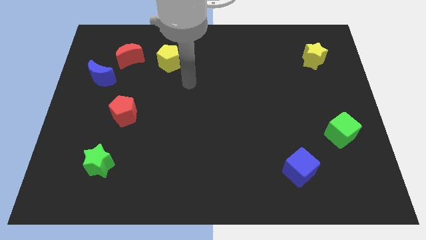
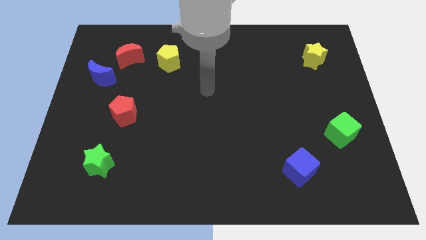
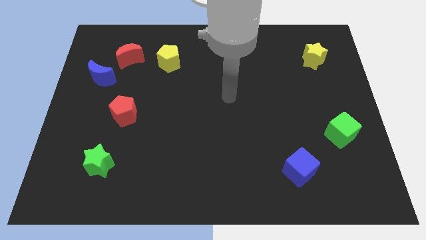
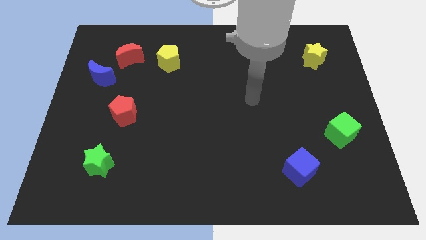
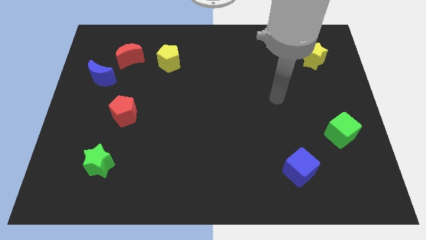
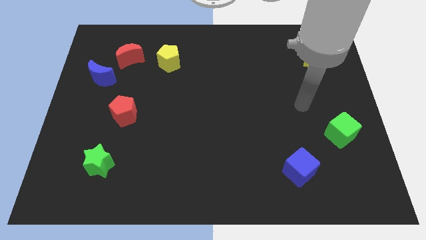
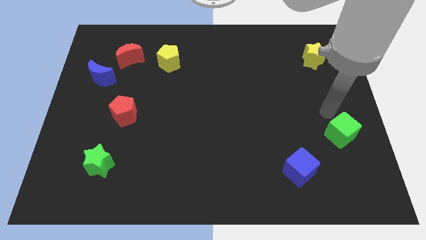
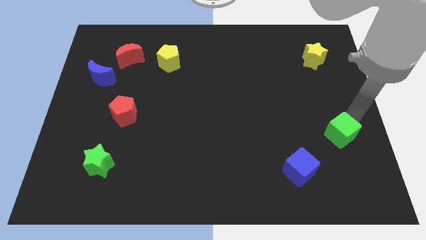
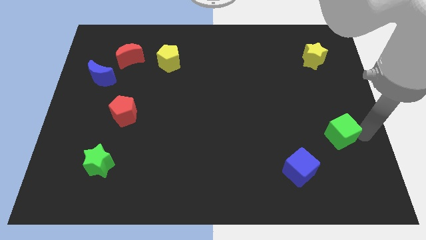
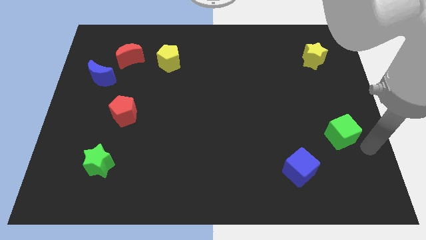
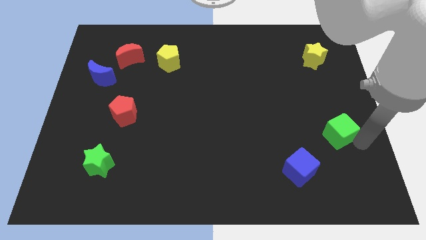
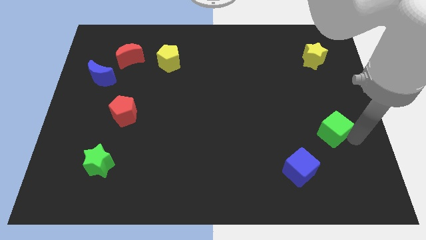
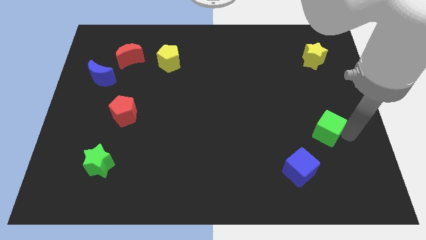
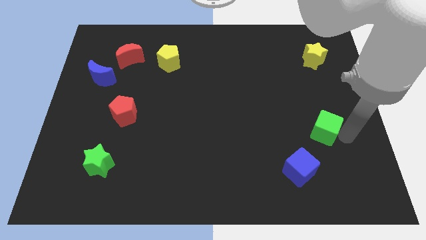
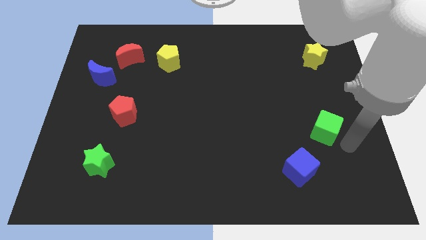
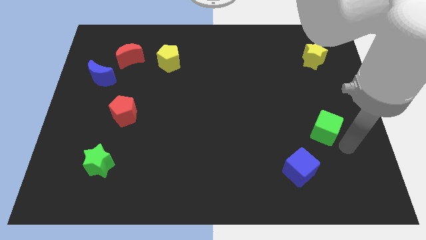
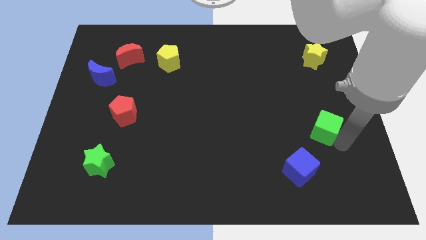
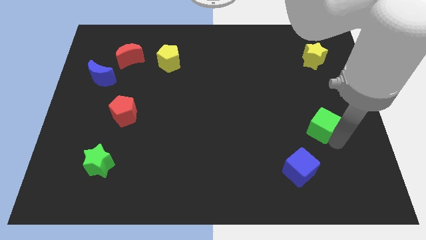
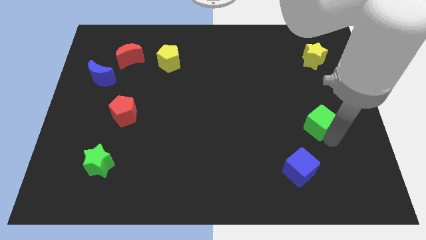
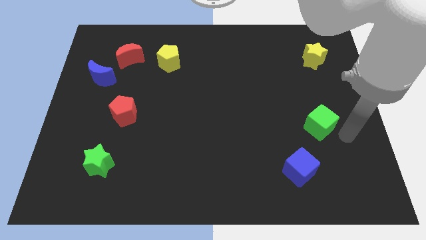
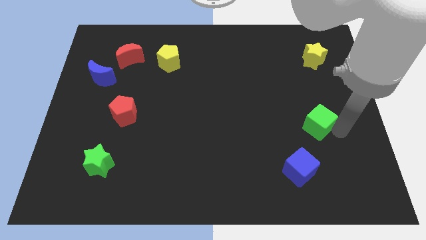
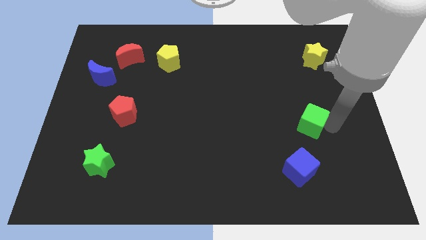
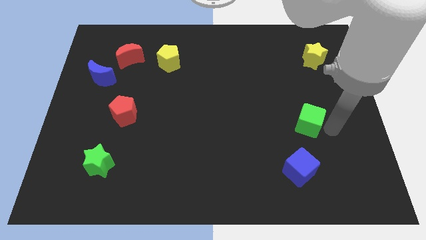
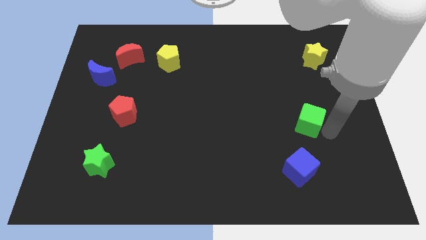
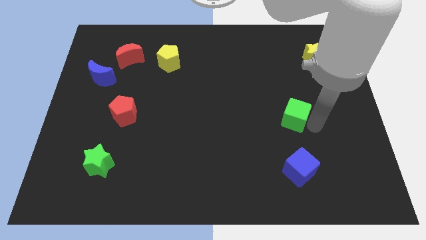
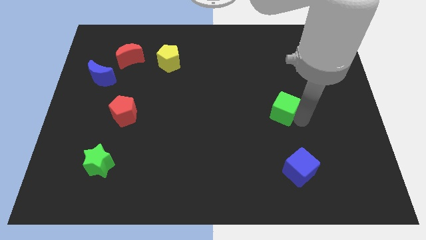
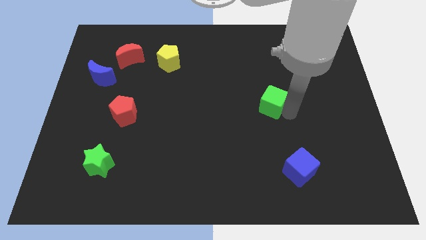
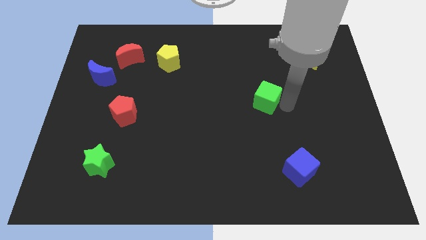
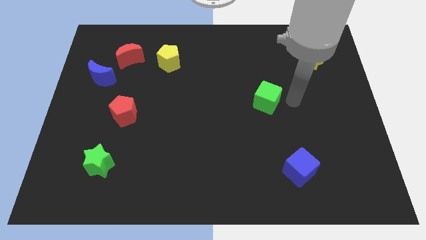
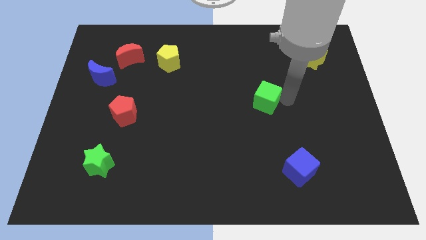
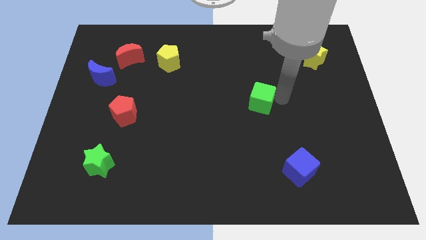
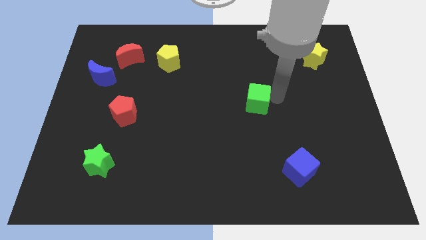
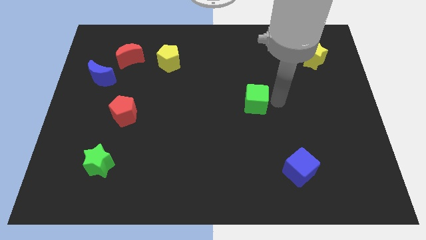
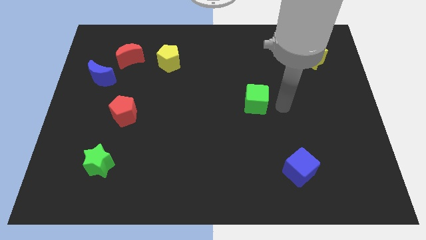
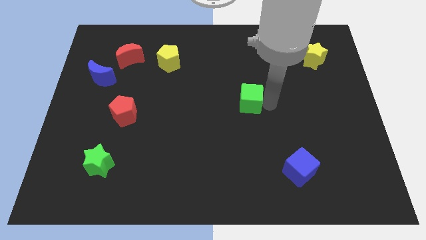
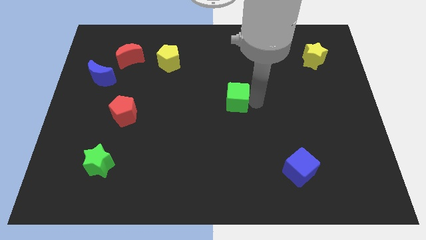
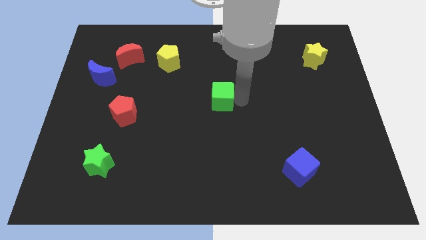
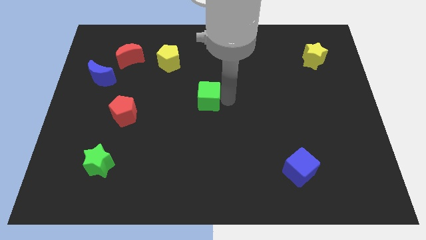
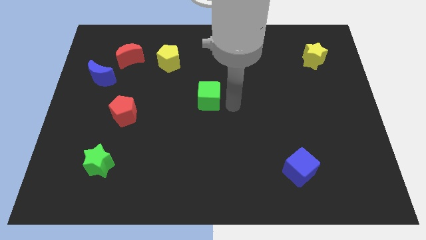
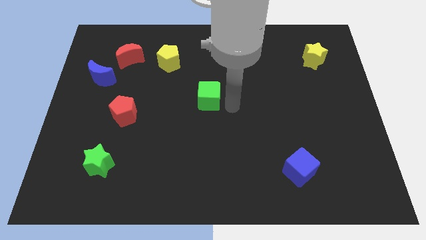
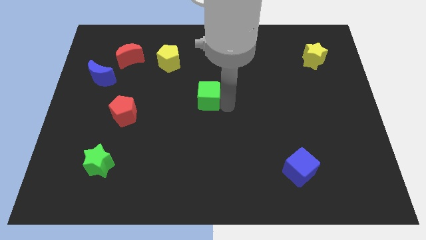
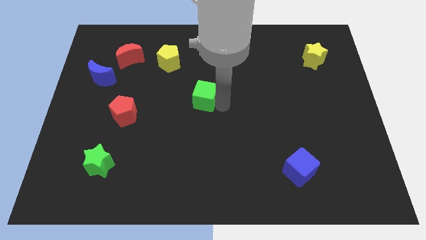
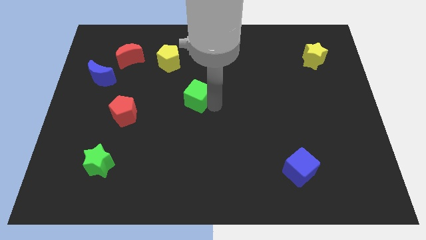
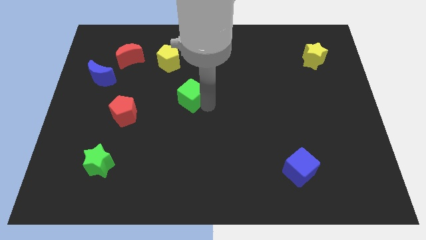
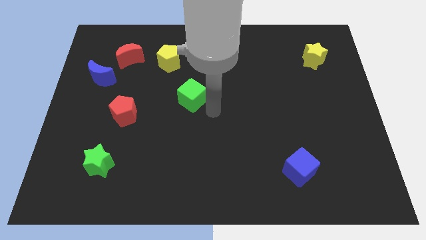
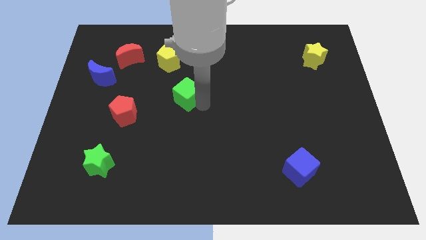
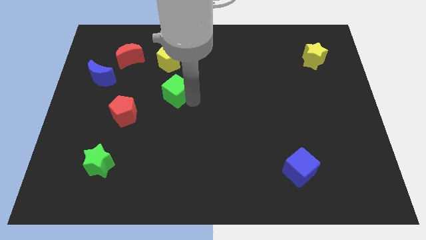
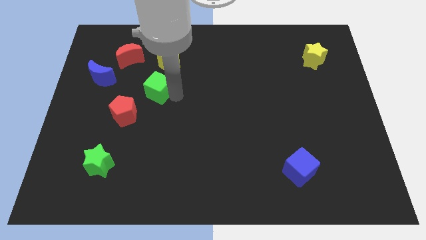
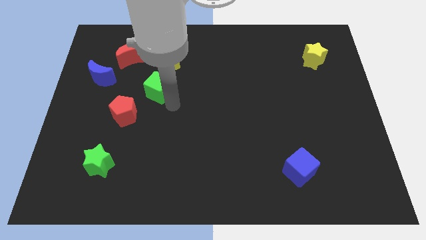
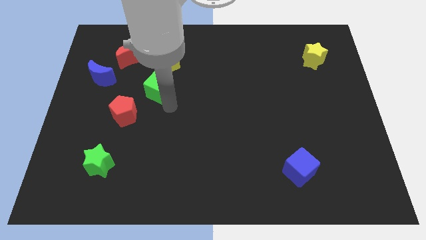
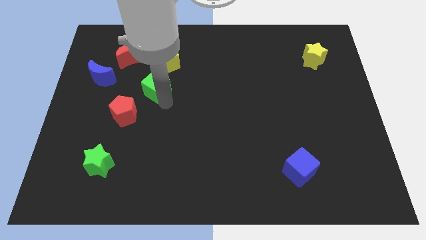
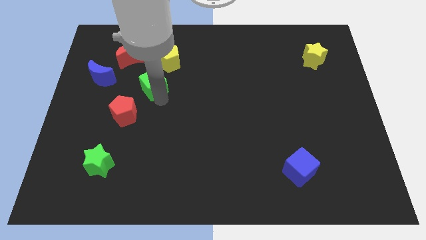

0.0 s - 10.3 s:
put the green cube diagonally down and to the right of the red moon
